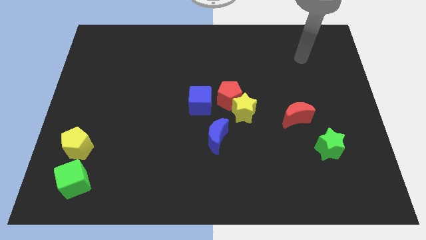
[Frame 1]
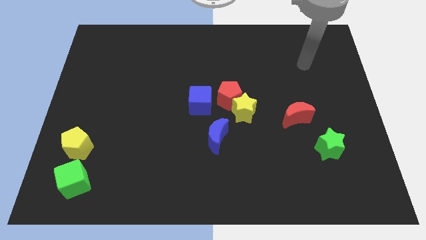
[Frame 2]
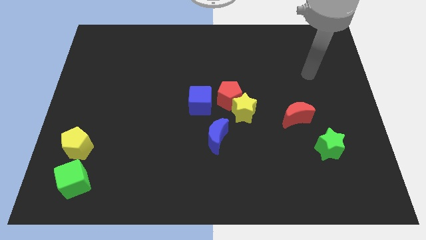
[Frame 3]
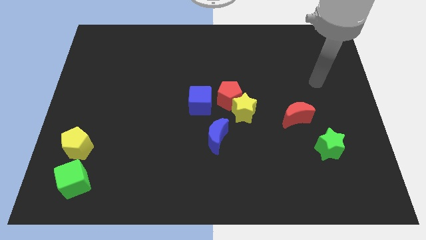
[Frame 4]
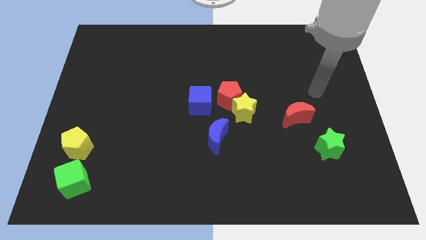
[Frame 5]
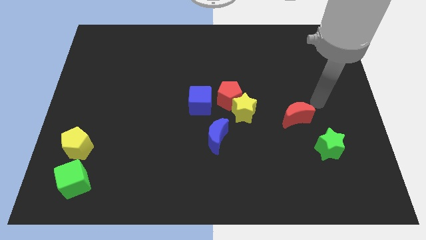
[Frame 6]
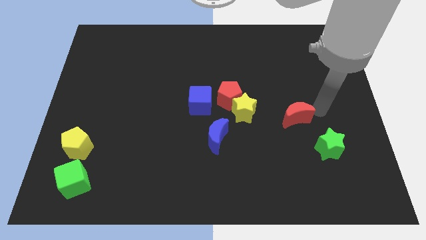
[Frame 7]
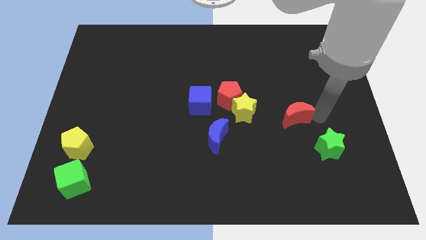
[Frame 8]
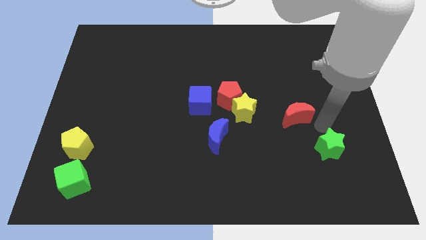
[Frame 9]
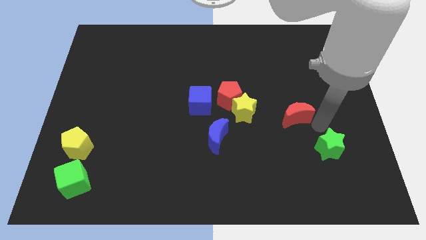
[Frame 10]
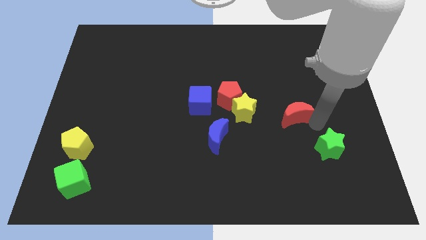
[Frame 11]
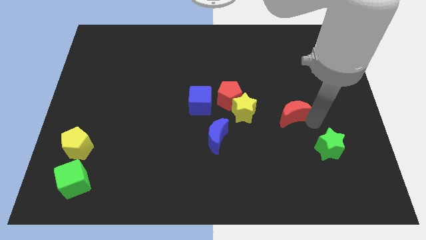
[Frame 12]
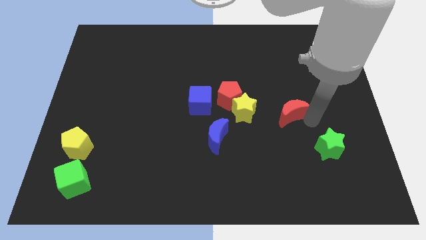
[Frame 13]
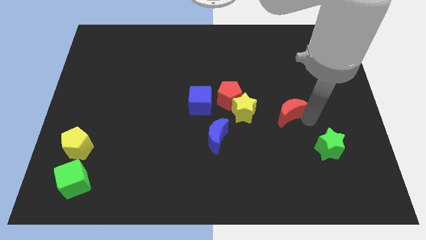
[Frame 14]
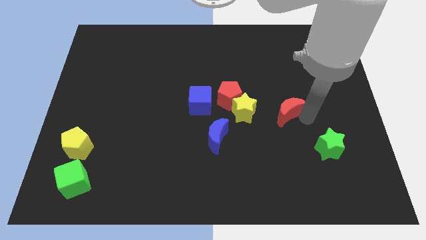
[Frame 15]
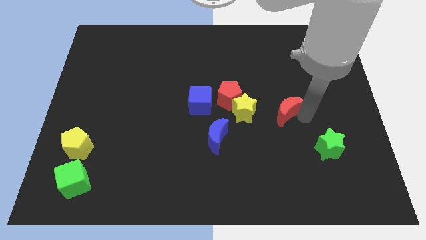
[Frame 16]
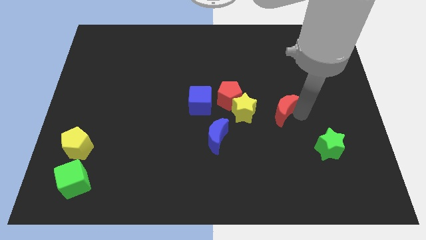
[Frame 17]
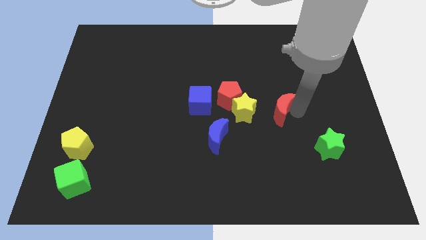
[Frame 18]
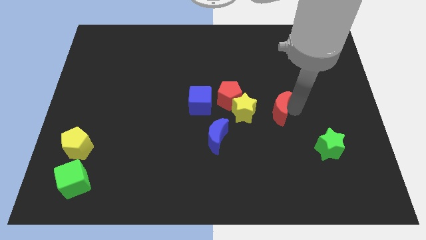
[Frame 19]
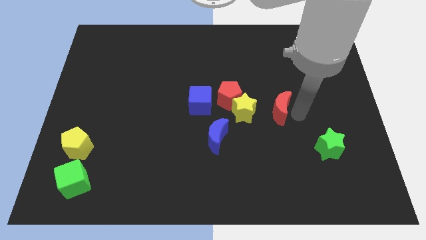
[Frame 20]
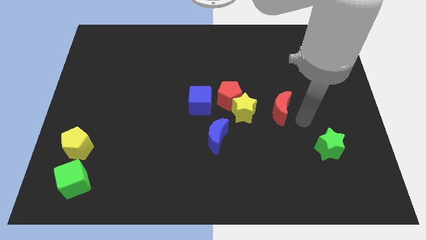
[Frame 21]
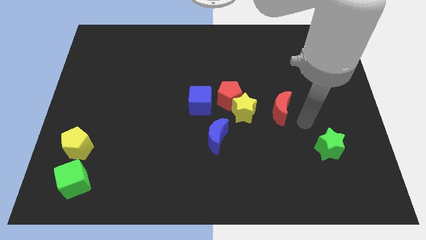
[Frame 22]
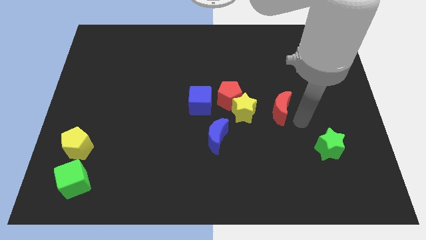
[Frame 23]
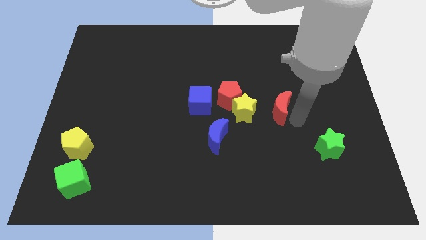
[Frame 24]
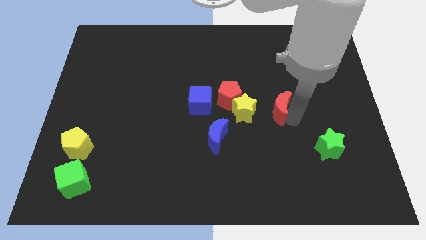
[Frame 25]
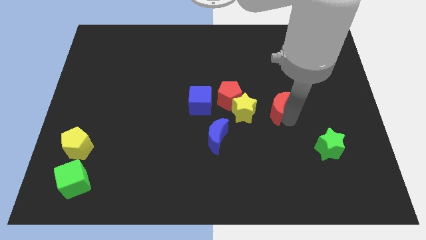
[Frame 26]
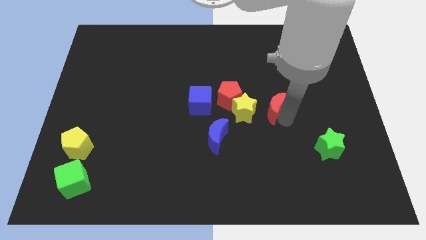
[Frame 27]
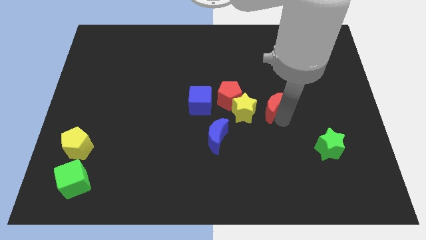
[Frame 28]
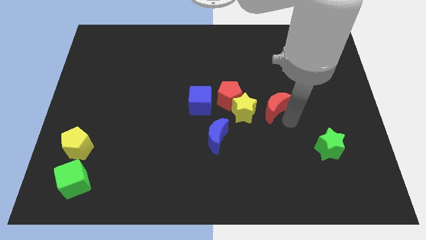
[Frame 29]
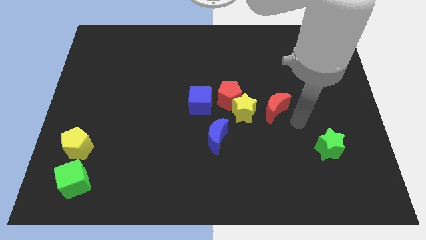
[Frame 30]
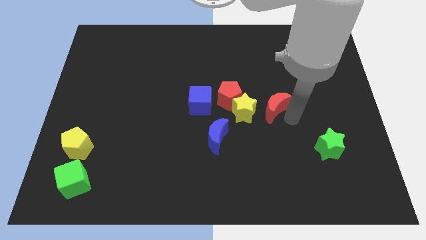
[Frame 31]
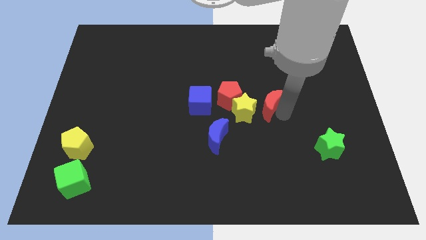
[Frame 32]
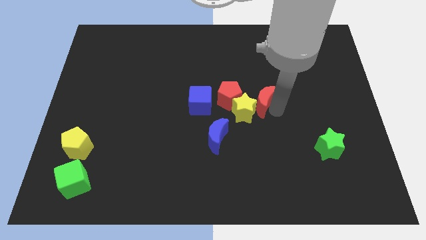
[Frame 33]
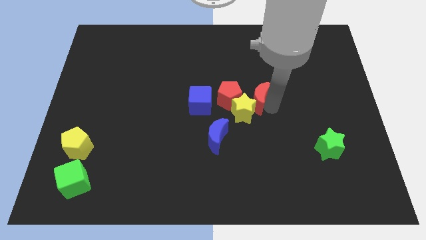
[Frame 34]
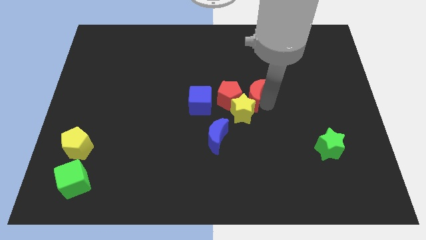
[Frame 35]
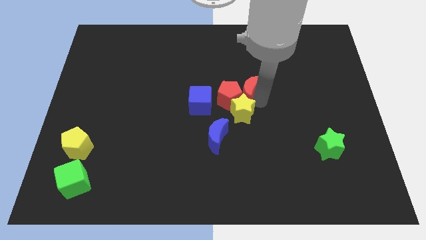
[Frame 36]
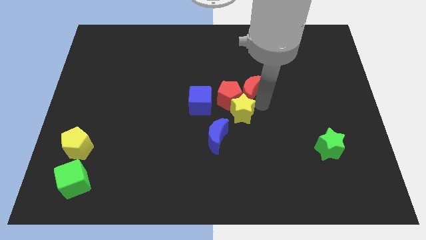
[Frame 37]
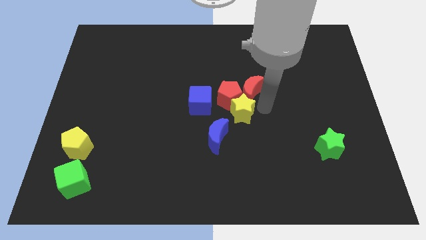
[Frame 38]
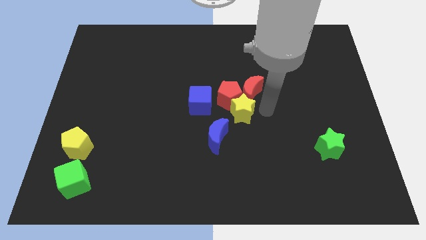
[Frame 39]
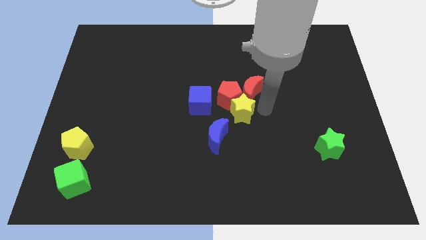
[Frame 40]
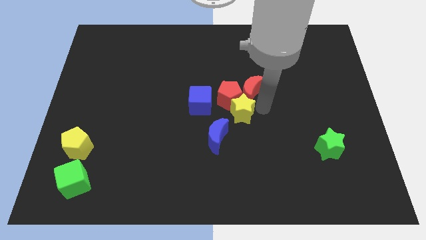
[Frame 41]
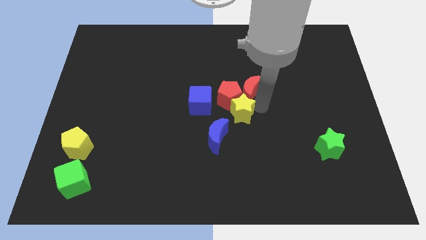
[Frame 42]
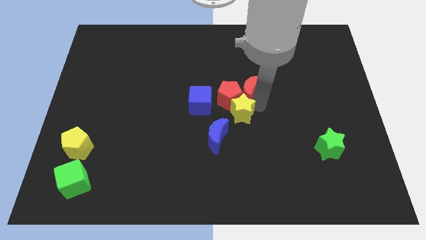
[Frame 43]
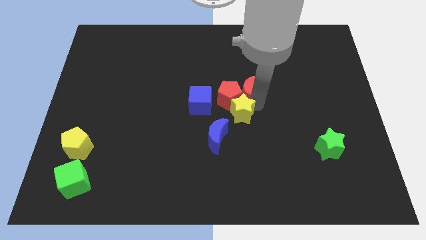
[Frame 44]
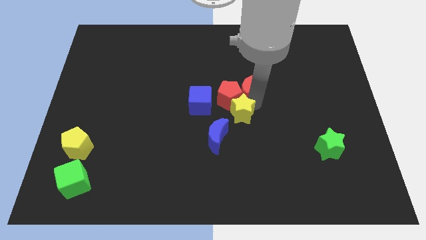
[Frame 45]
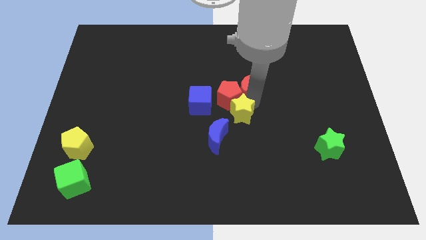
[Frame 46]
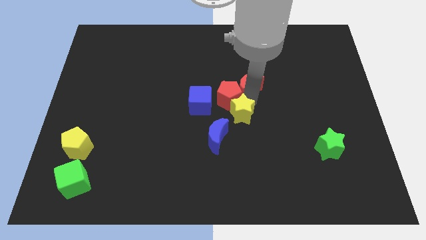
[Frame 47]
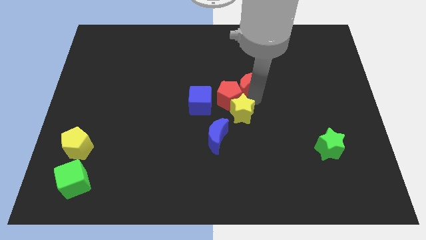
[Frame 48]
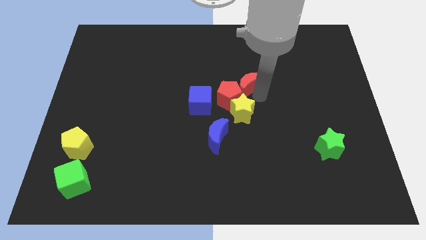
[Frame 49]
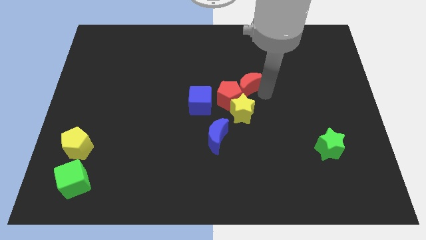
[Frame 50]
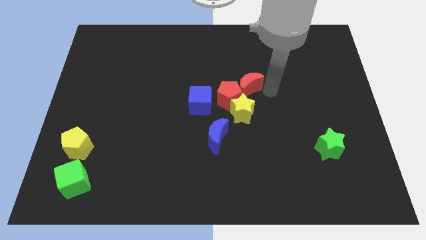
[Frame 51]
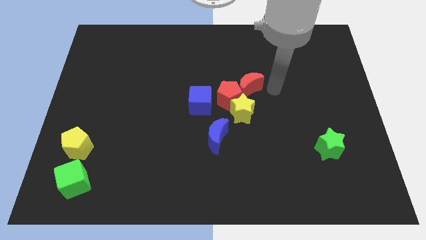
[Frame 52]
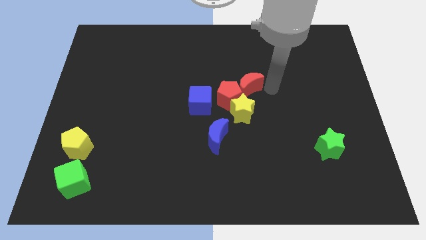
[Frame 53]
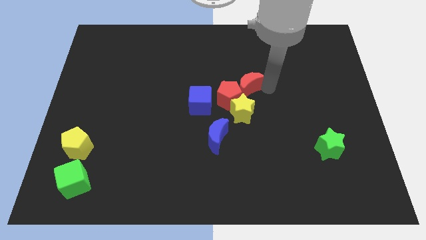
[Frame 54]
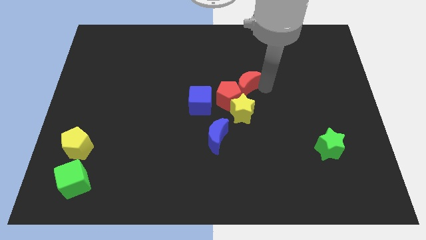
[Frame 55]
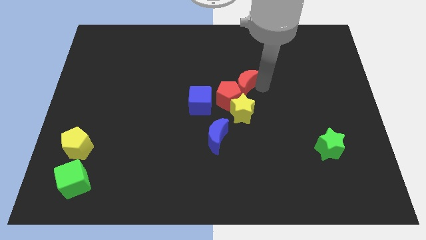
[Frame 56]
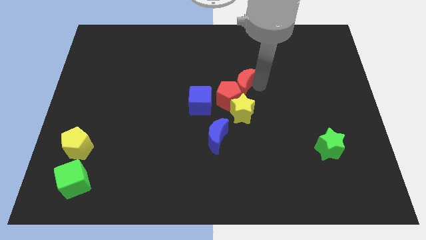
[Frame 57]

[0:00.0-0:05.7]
move the red moon to the top right side of the blue cube

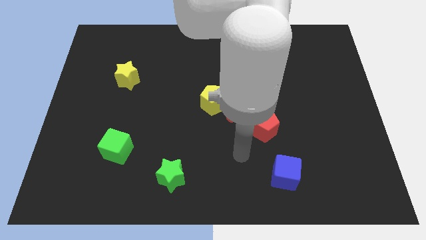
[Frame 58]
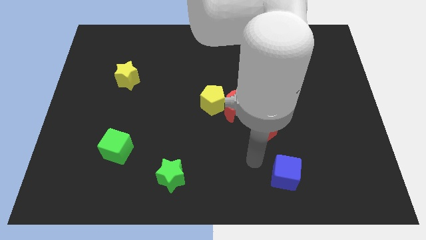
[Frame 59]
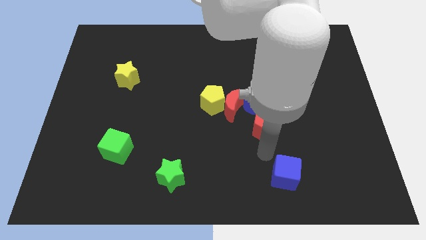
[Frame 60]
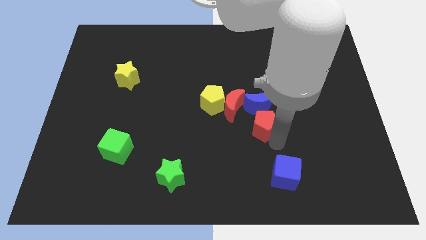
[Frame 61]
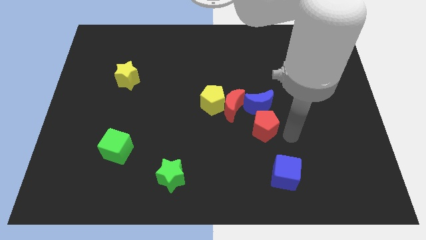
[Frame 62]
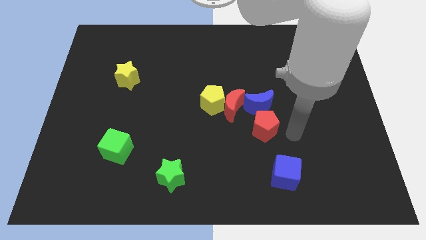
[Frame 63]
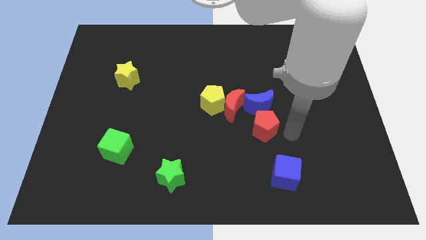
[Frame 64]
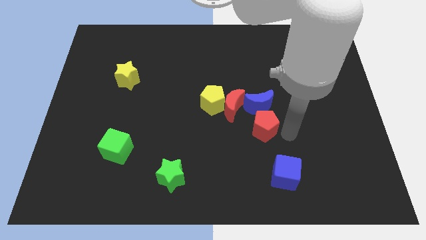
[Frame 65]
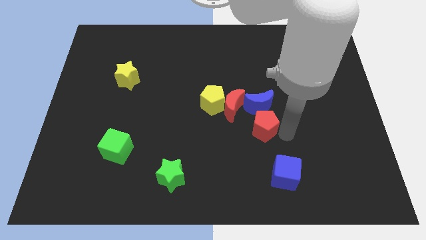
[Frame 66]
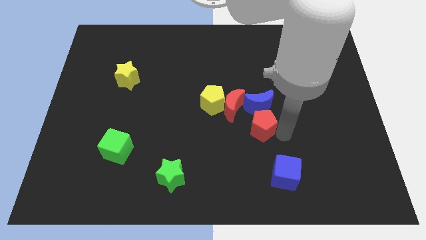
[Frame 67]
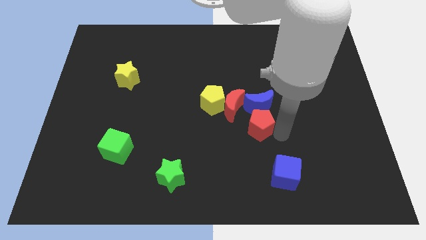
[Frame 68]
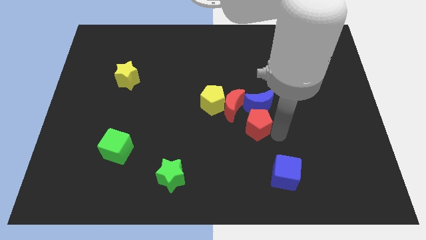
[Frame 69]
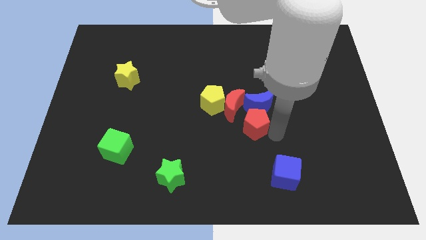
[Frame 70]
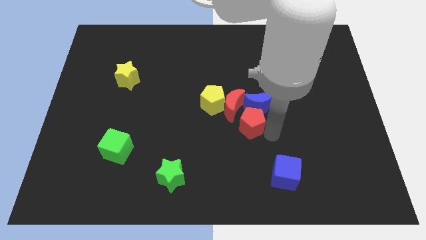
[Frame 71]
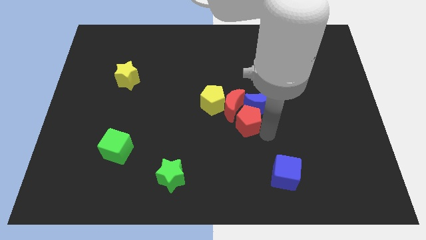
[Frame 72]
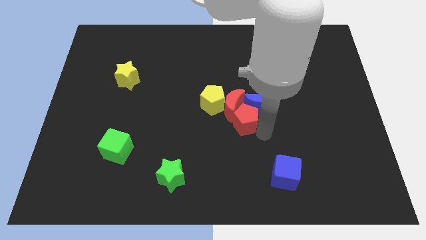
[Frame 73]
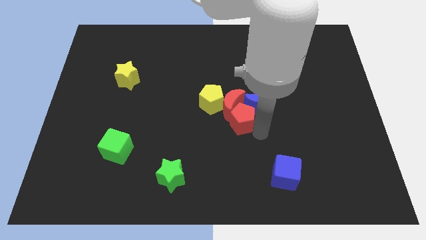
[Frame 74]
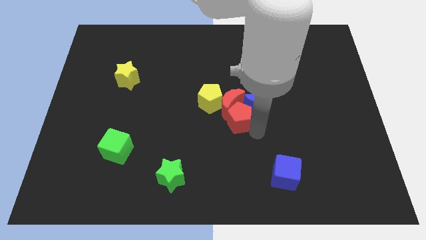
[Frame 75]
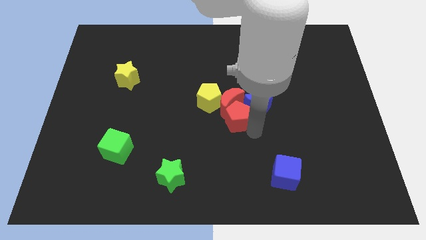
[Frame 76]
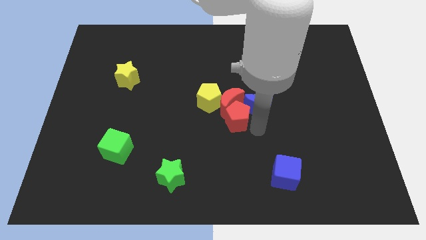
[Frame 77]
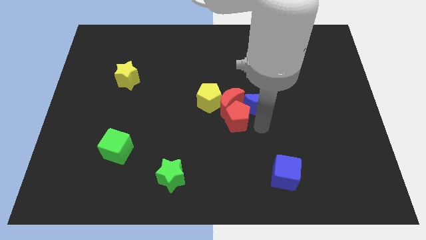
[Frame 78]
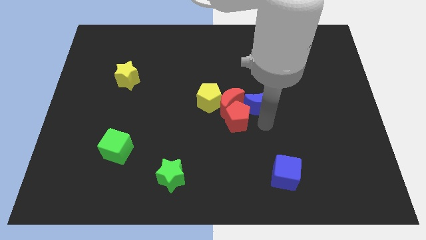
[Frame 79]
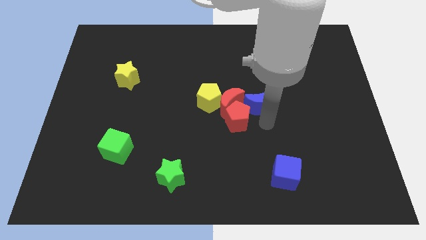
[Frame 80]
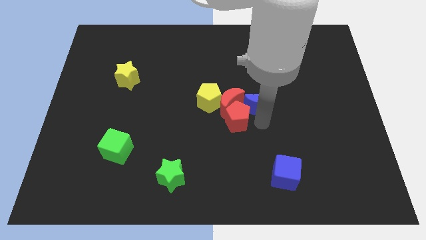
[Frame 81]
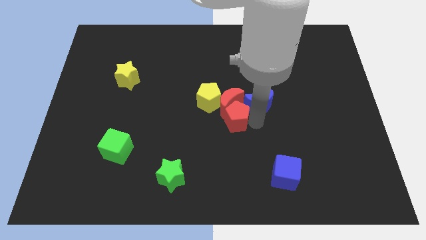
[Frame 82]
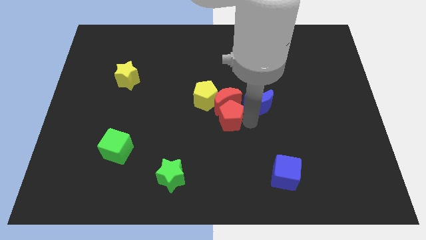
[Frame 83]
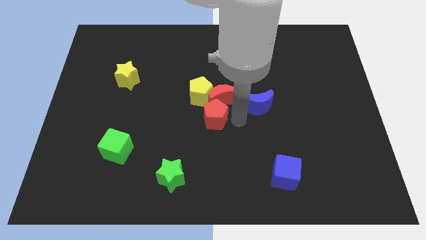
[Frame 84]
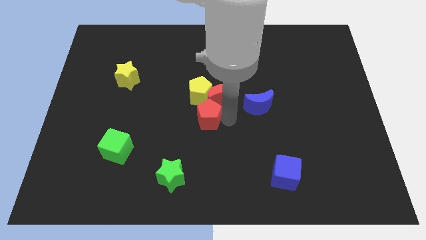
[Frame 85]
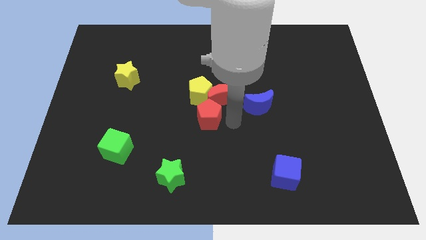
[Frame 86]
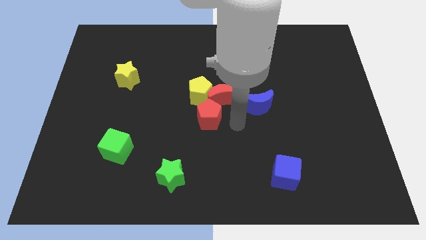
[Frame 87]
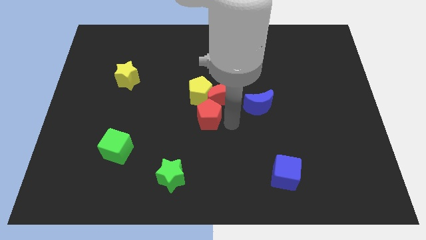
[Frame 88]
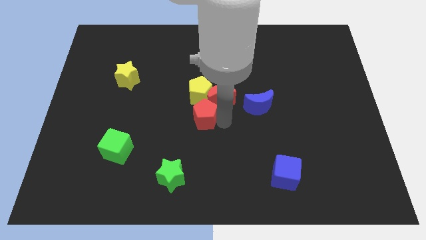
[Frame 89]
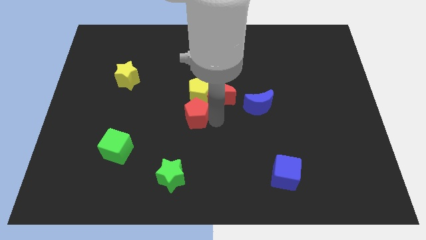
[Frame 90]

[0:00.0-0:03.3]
slide the red pentagon to the bottom left side of the yellow pentagon
